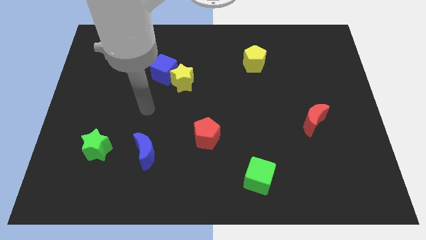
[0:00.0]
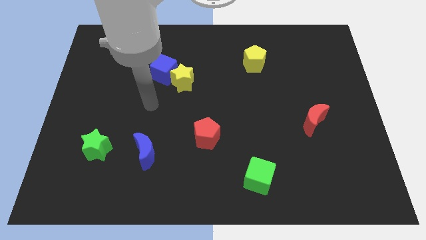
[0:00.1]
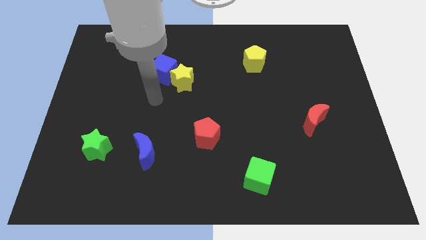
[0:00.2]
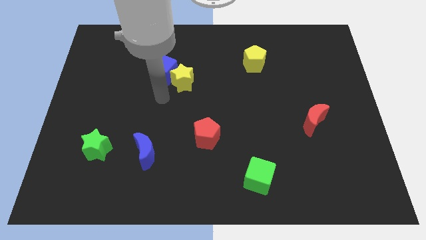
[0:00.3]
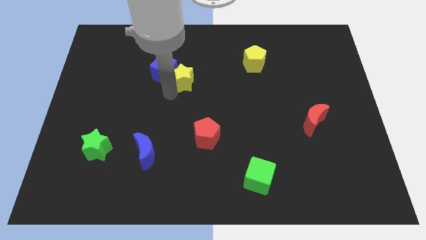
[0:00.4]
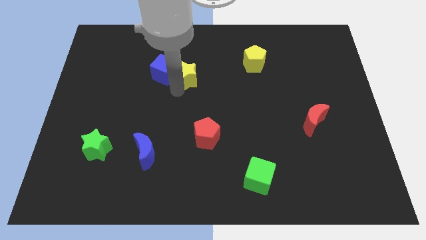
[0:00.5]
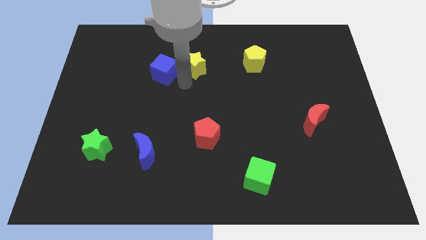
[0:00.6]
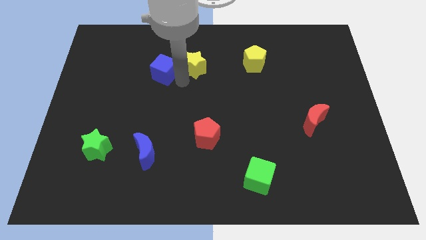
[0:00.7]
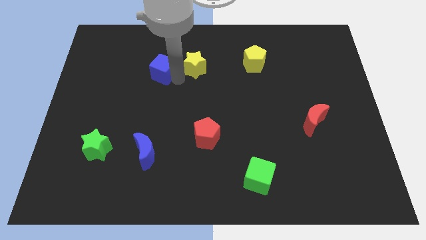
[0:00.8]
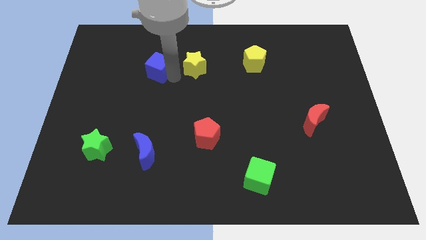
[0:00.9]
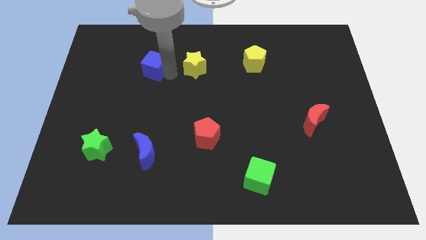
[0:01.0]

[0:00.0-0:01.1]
separate the blue cube from the yellow star

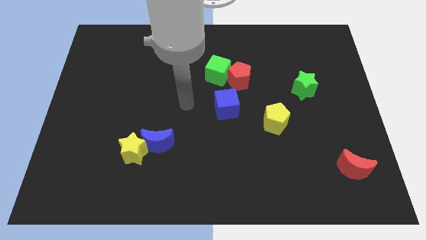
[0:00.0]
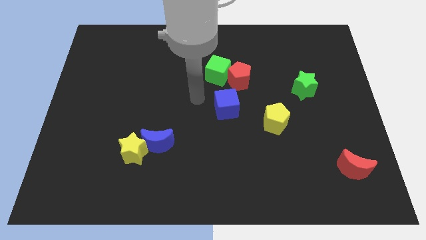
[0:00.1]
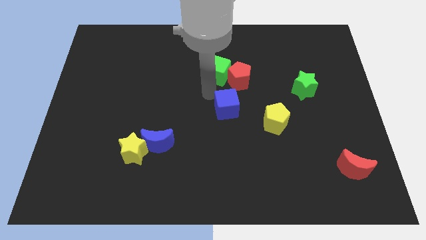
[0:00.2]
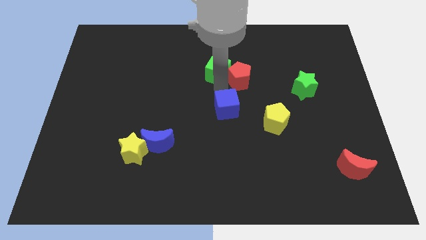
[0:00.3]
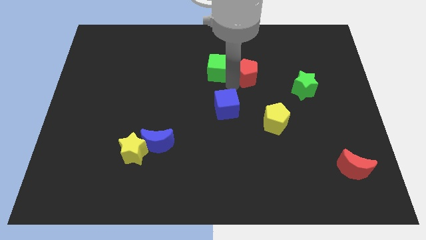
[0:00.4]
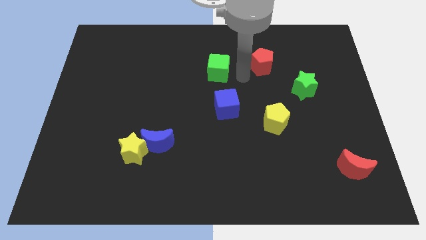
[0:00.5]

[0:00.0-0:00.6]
move the green cube away from the red pentagon

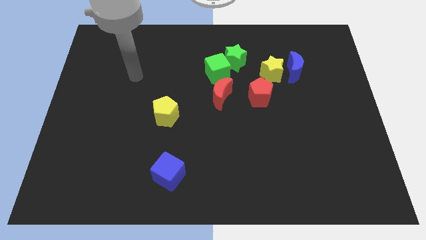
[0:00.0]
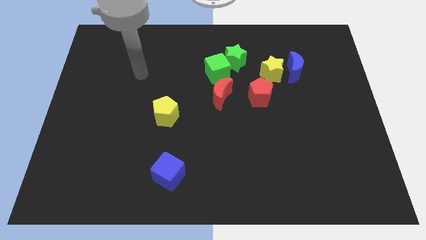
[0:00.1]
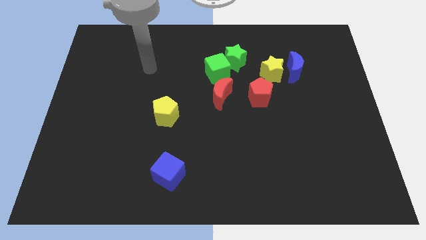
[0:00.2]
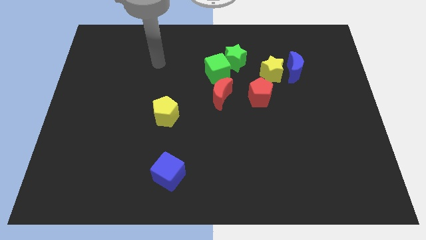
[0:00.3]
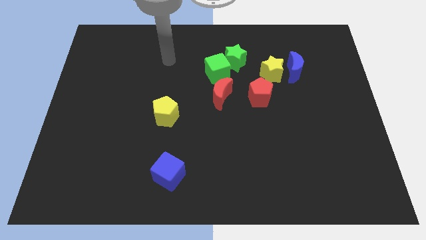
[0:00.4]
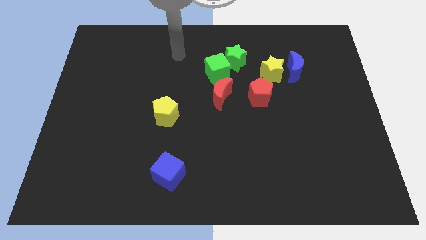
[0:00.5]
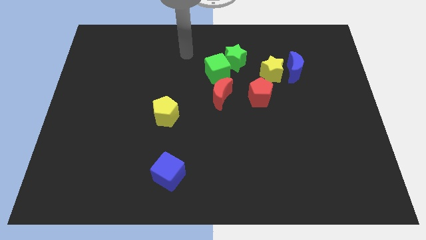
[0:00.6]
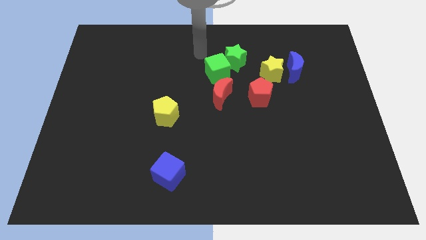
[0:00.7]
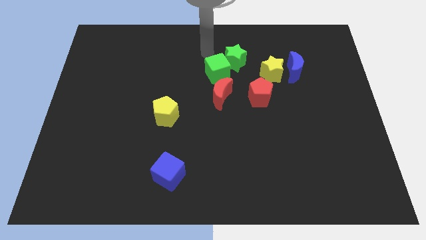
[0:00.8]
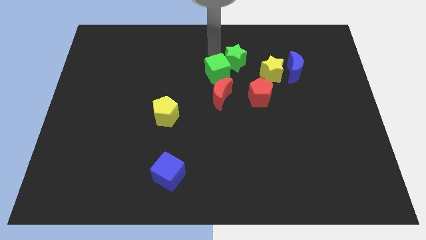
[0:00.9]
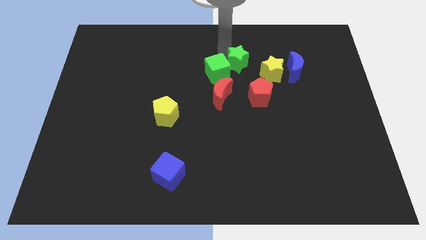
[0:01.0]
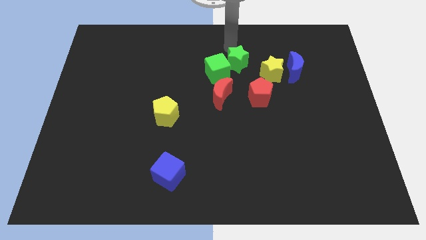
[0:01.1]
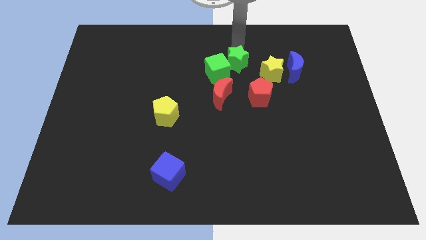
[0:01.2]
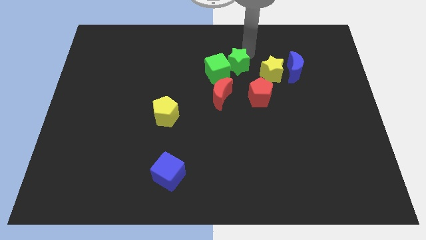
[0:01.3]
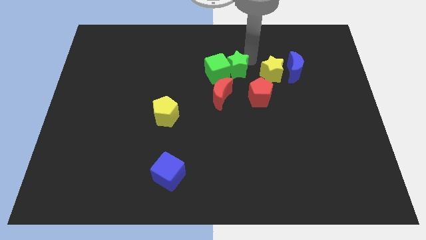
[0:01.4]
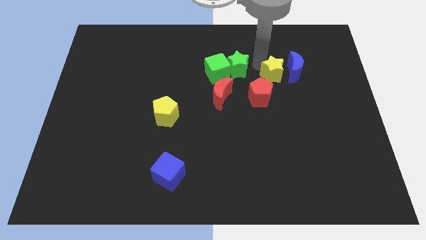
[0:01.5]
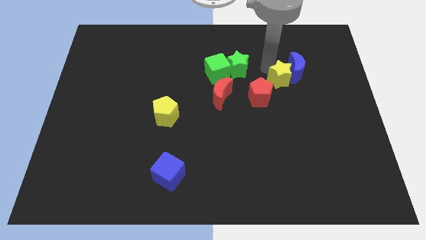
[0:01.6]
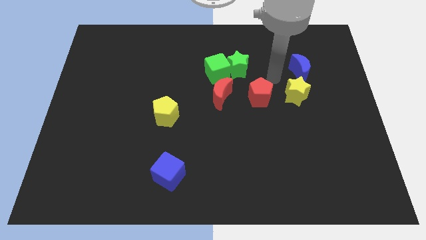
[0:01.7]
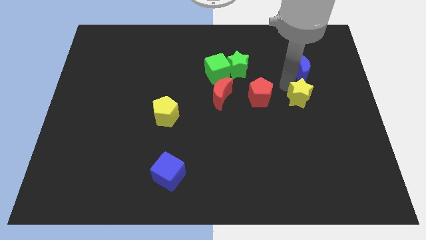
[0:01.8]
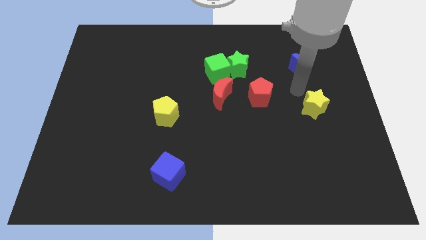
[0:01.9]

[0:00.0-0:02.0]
separate the blue moon from the yellow star

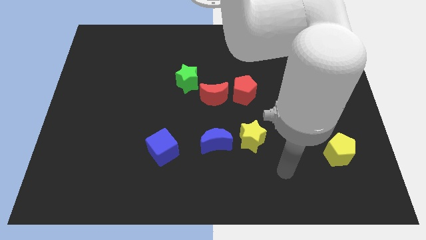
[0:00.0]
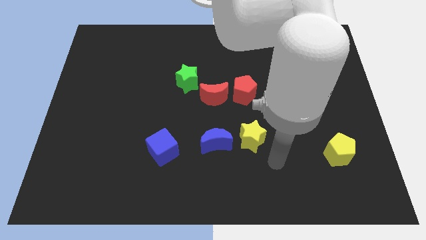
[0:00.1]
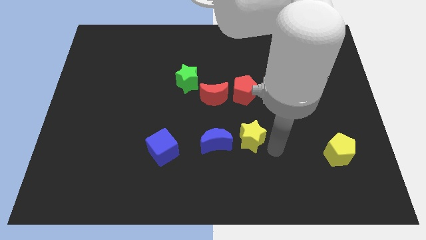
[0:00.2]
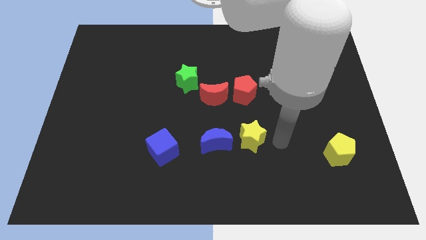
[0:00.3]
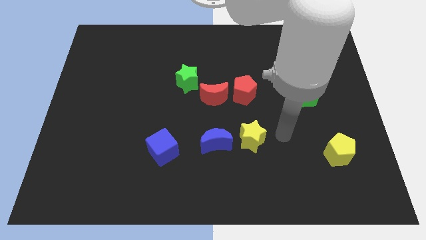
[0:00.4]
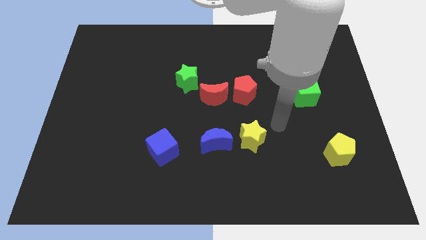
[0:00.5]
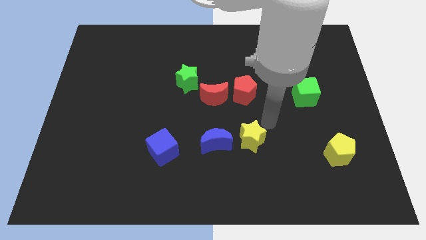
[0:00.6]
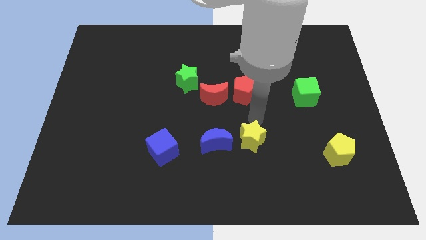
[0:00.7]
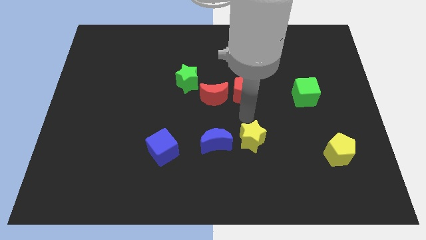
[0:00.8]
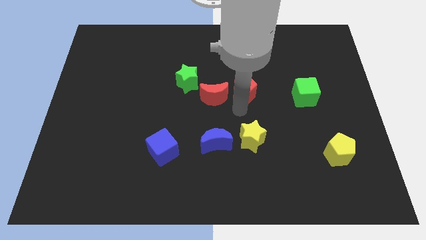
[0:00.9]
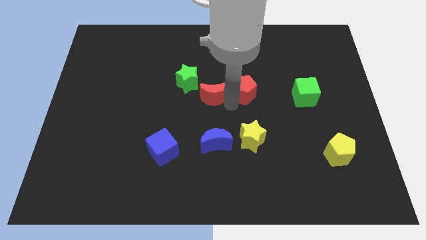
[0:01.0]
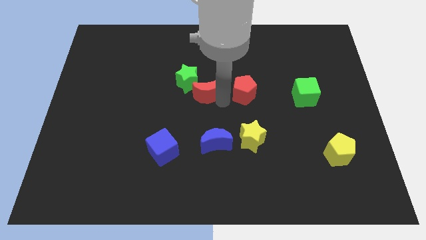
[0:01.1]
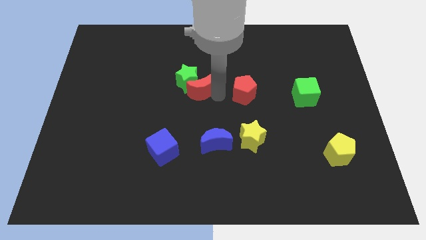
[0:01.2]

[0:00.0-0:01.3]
move the red pentagon away from the red moon

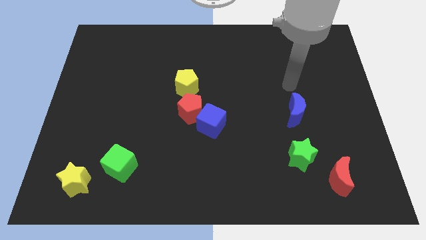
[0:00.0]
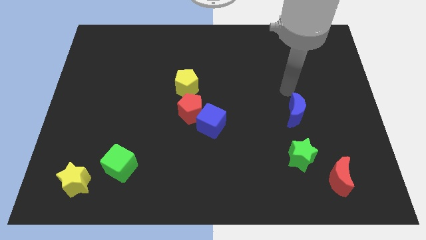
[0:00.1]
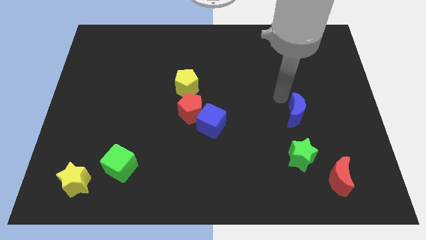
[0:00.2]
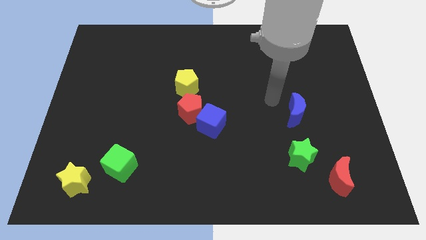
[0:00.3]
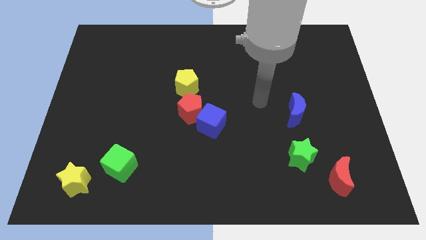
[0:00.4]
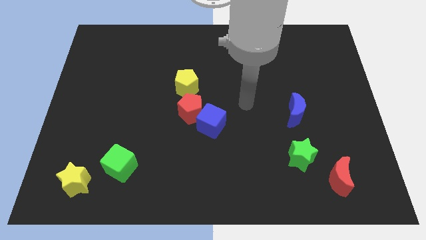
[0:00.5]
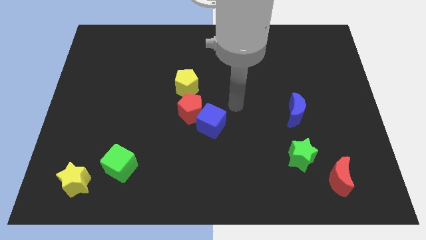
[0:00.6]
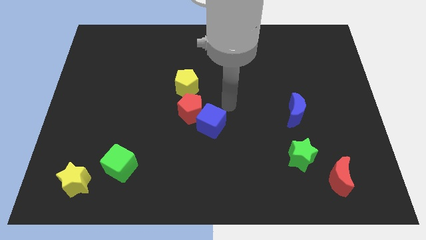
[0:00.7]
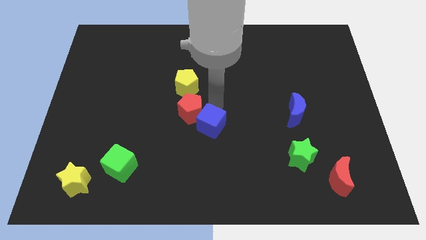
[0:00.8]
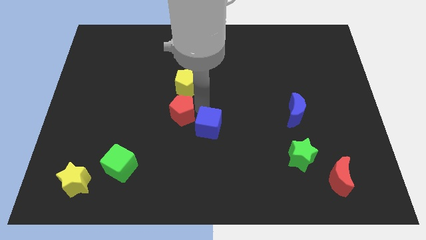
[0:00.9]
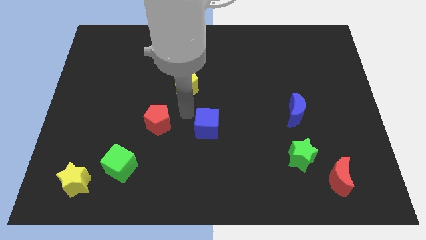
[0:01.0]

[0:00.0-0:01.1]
pull the blue cube apart from the red pentagon

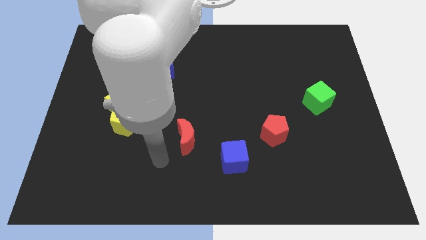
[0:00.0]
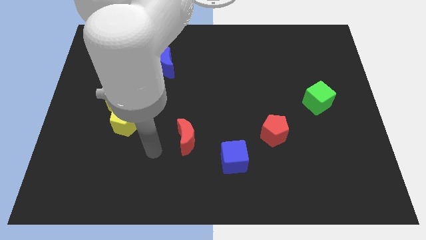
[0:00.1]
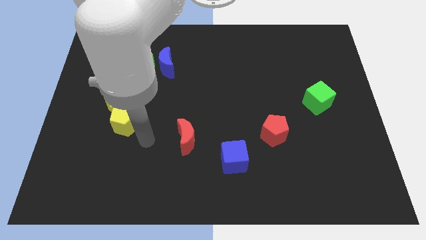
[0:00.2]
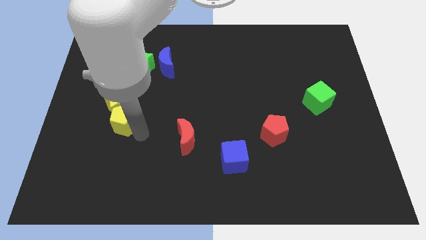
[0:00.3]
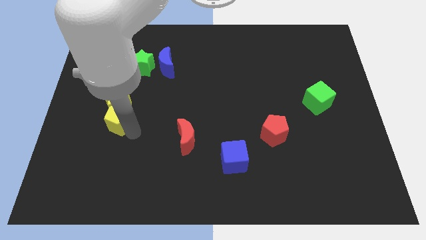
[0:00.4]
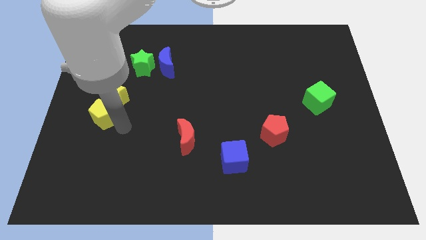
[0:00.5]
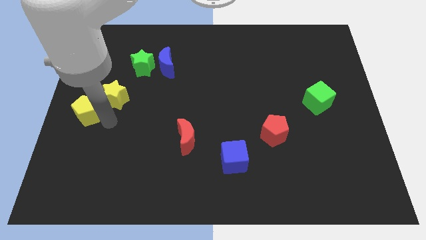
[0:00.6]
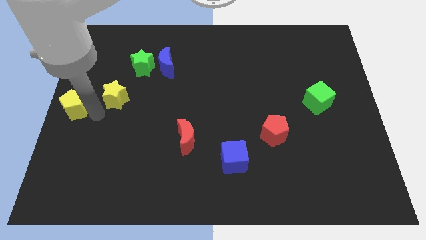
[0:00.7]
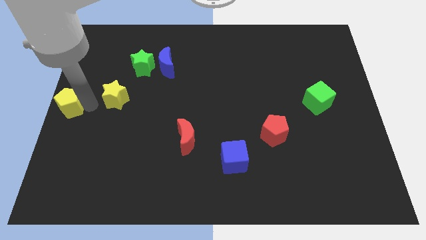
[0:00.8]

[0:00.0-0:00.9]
move the yellow star away from the yellow pentagon

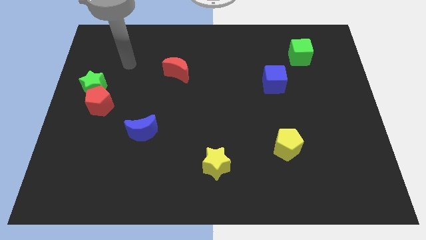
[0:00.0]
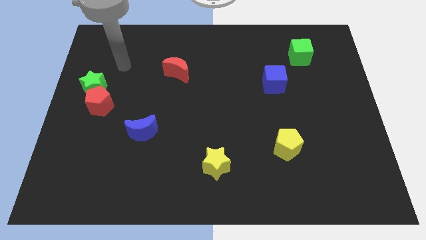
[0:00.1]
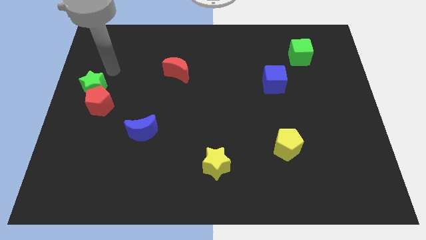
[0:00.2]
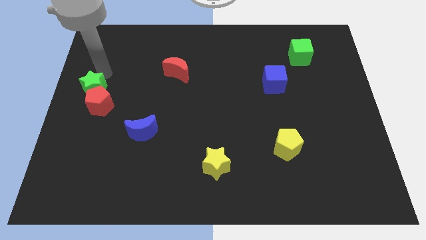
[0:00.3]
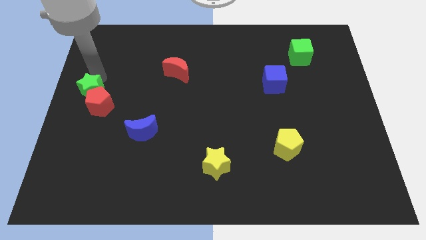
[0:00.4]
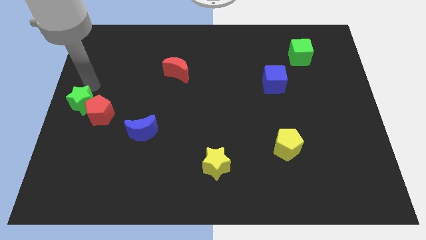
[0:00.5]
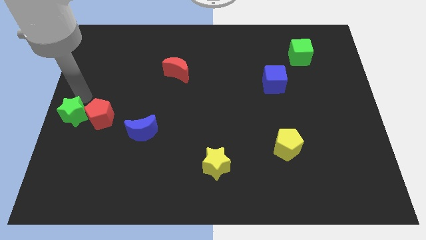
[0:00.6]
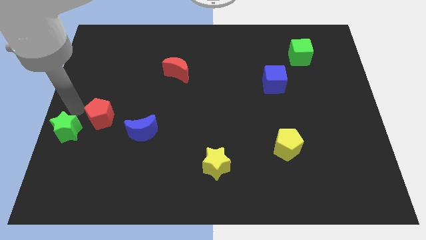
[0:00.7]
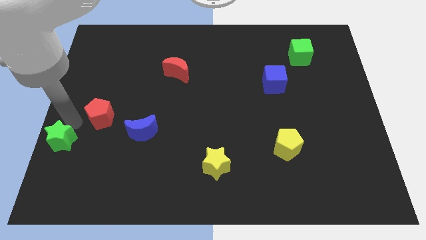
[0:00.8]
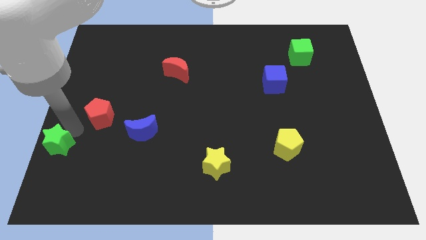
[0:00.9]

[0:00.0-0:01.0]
separate the red pentagon from the green star

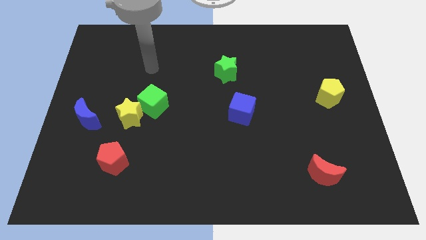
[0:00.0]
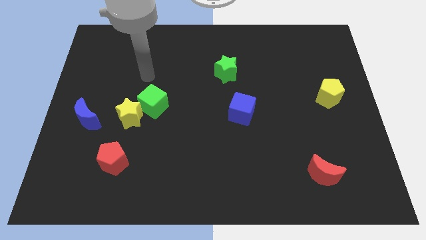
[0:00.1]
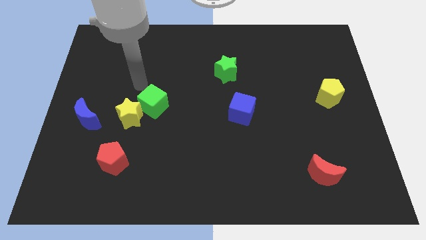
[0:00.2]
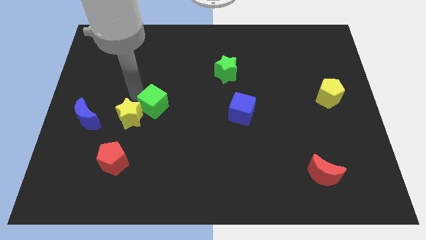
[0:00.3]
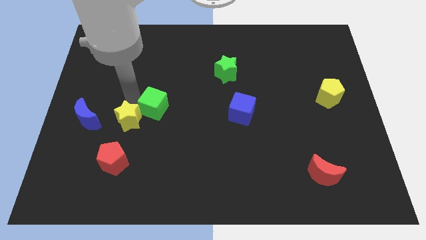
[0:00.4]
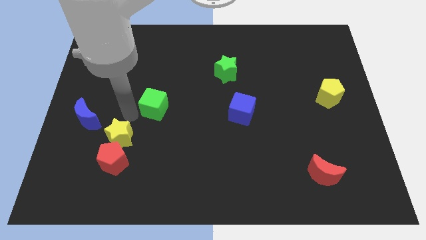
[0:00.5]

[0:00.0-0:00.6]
separate the green cube from the yellow star

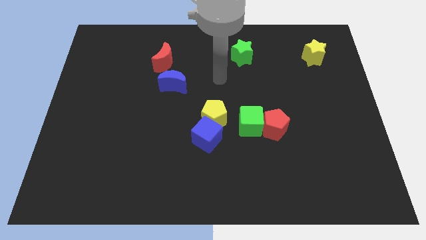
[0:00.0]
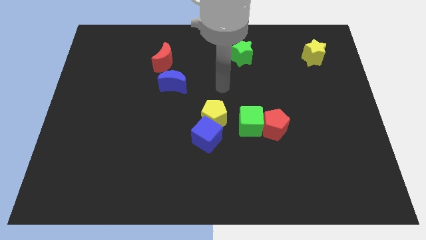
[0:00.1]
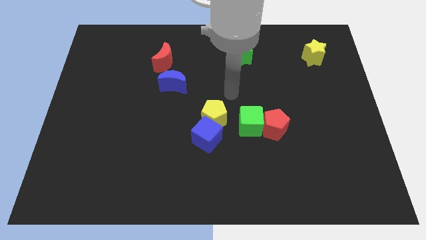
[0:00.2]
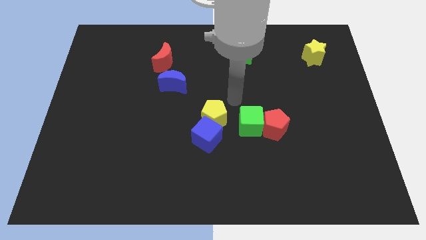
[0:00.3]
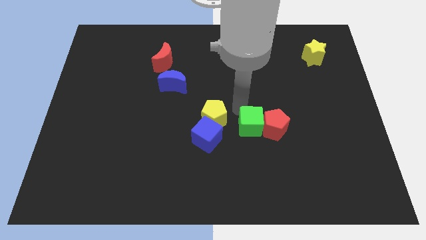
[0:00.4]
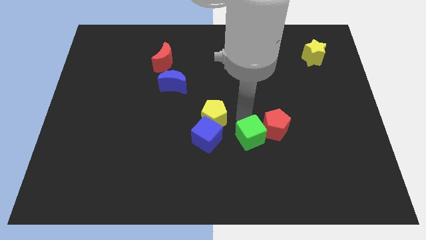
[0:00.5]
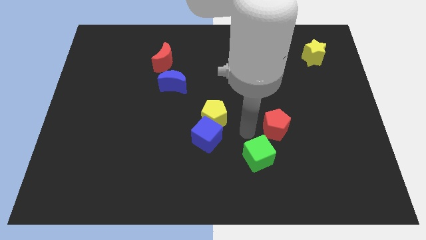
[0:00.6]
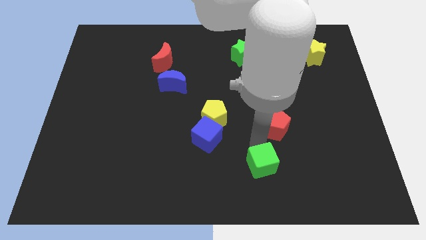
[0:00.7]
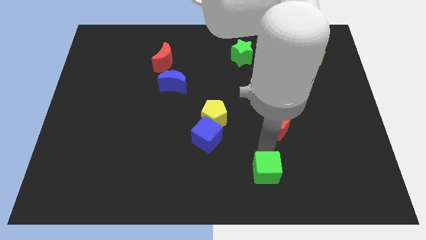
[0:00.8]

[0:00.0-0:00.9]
separate the red pentagon from the green cube
